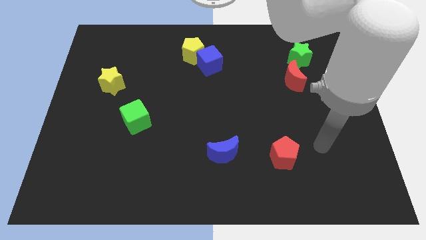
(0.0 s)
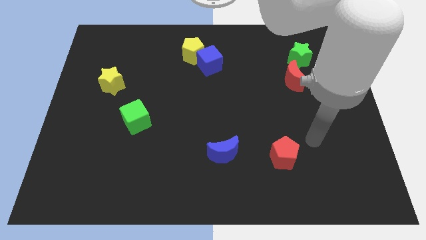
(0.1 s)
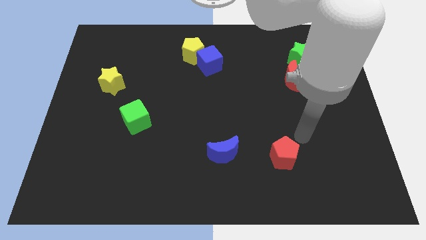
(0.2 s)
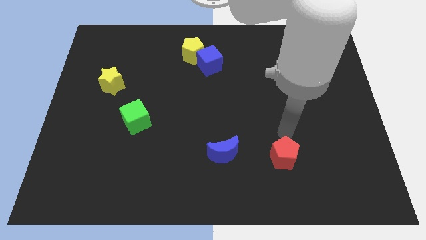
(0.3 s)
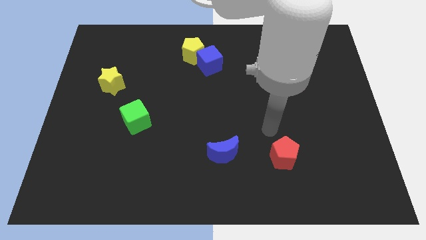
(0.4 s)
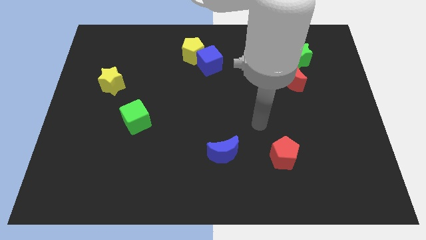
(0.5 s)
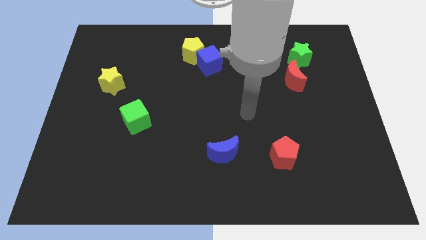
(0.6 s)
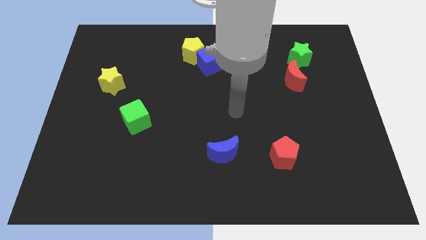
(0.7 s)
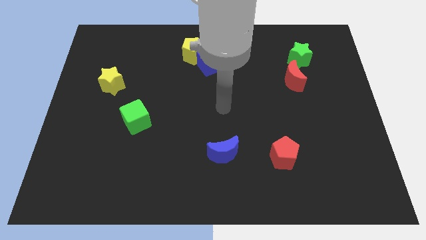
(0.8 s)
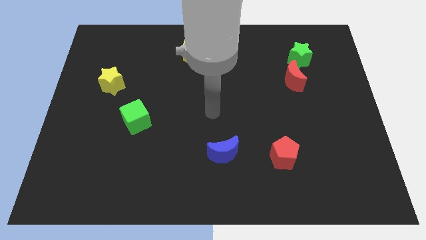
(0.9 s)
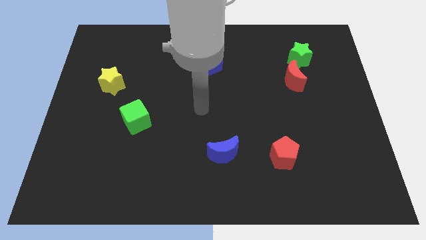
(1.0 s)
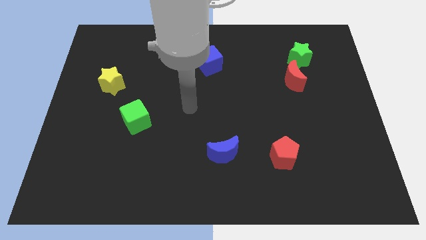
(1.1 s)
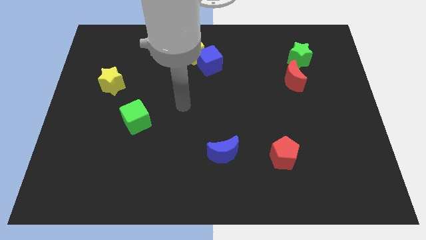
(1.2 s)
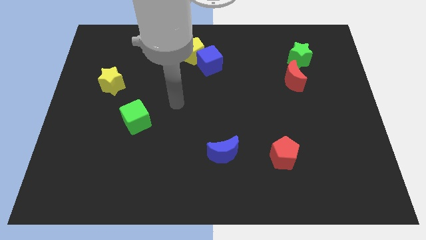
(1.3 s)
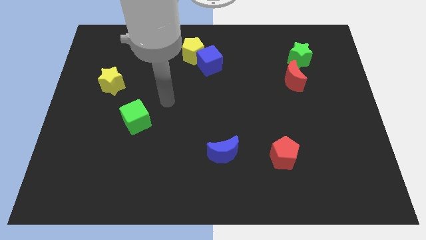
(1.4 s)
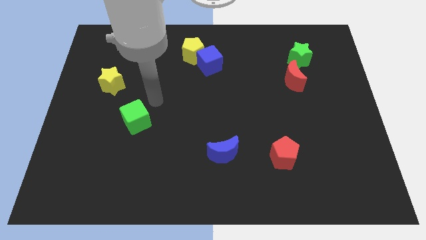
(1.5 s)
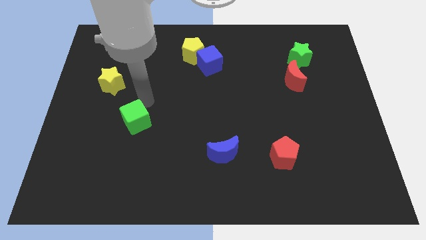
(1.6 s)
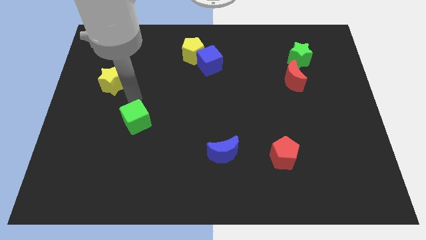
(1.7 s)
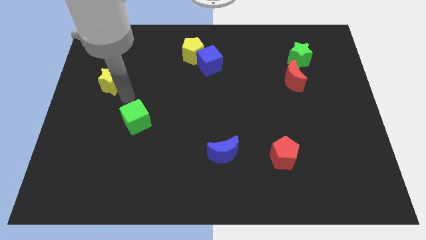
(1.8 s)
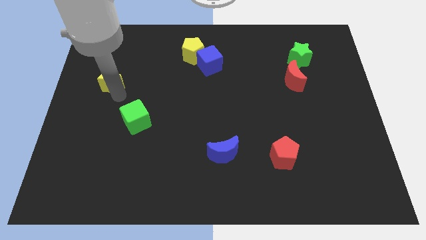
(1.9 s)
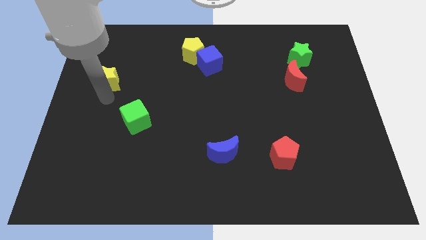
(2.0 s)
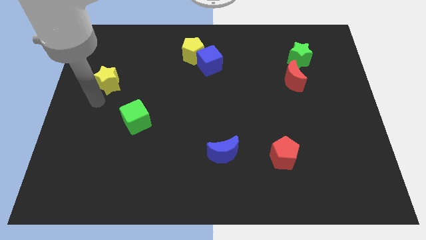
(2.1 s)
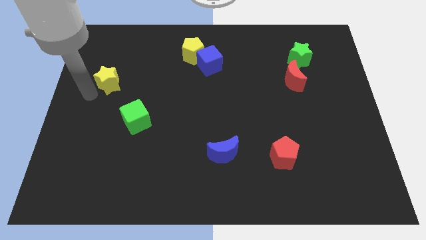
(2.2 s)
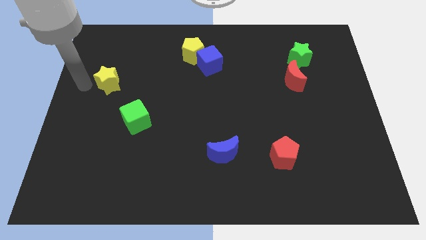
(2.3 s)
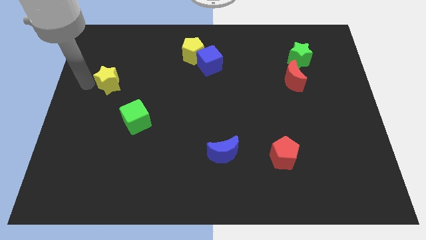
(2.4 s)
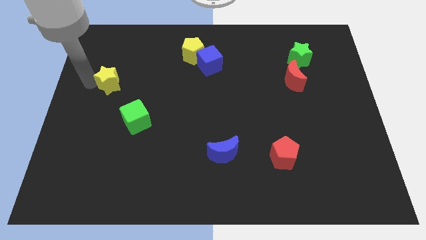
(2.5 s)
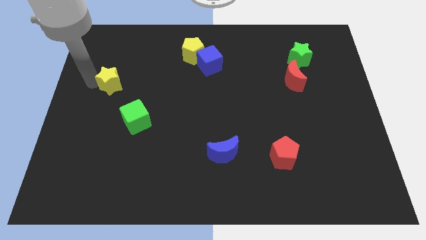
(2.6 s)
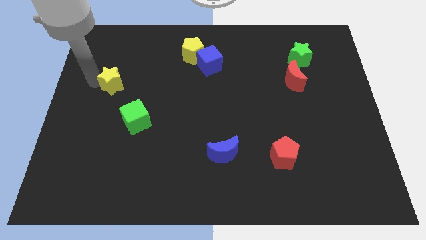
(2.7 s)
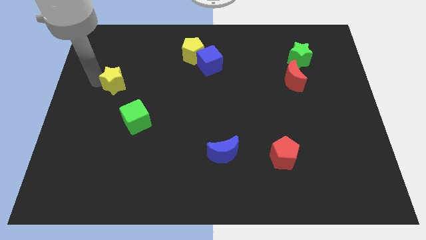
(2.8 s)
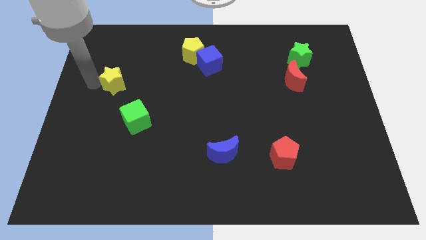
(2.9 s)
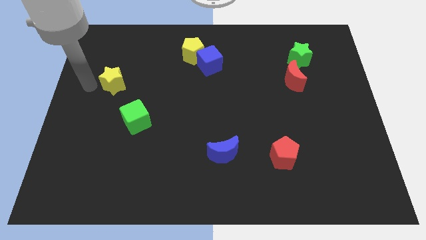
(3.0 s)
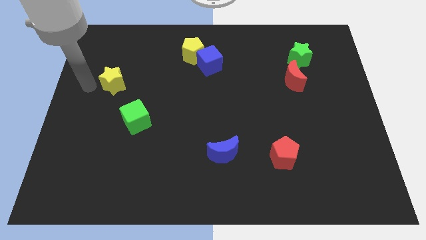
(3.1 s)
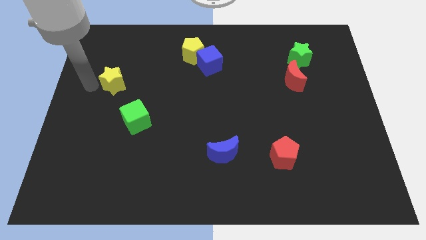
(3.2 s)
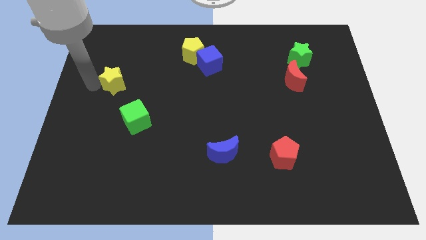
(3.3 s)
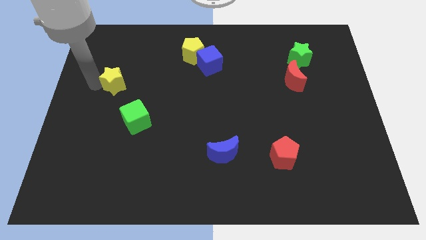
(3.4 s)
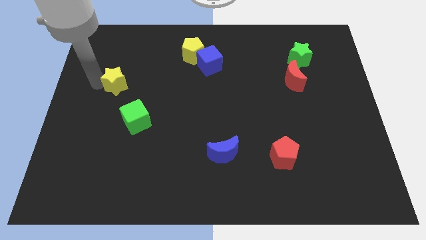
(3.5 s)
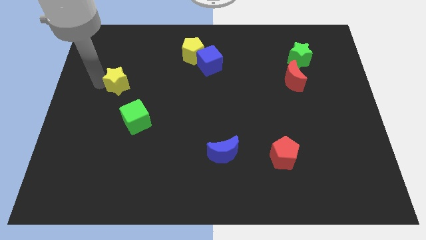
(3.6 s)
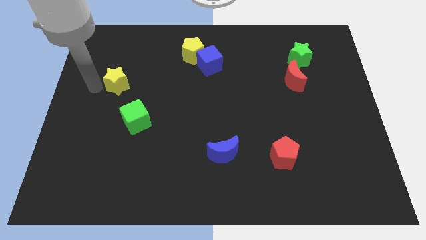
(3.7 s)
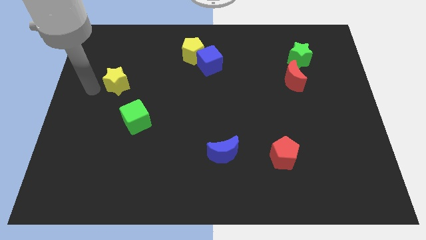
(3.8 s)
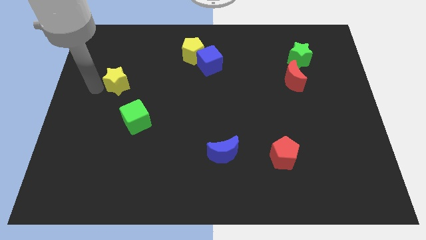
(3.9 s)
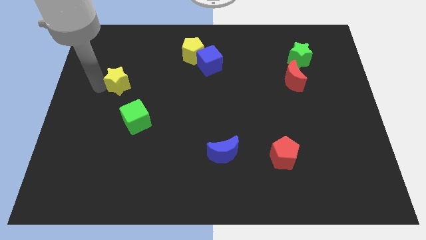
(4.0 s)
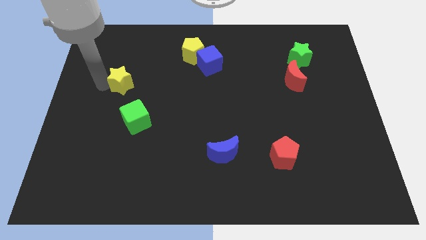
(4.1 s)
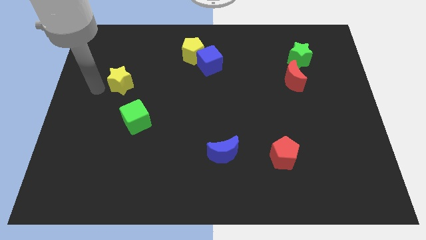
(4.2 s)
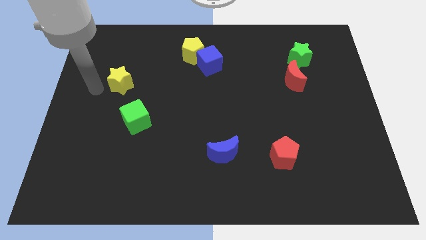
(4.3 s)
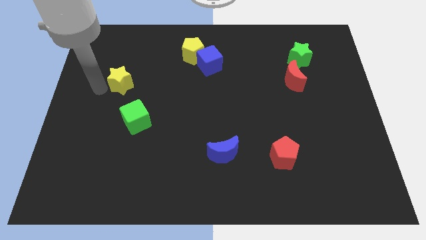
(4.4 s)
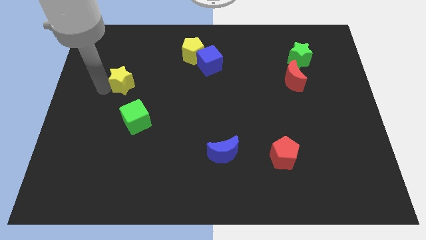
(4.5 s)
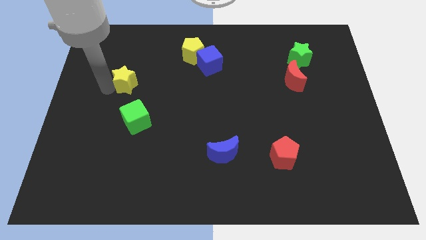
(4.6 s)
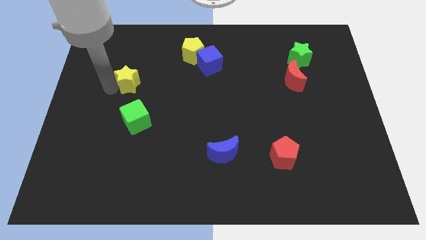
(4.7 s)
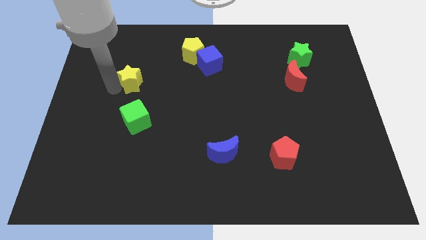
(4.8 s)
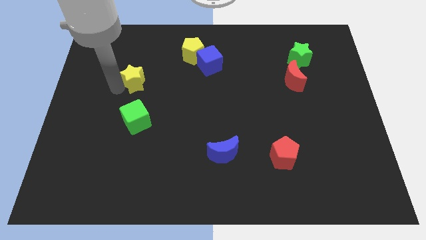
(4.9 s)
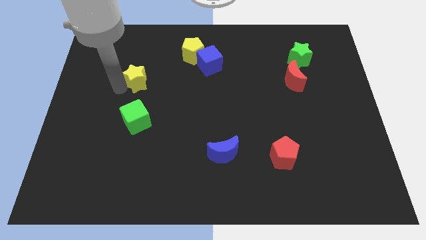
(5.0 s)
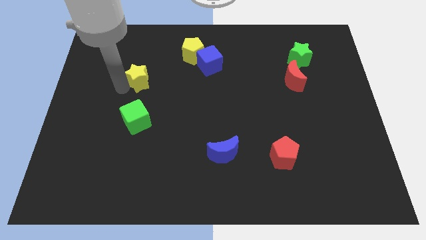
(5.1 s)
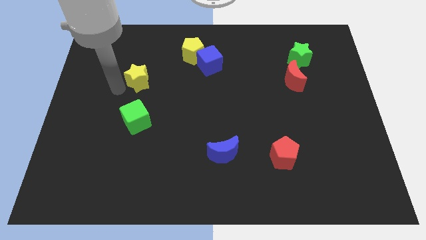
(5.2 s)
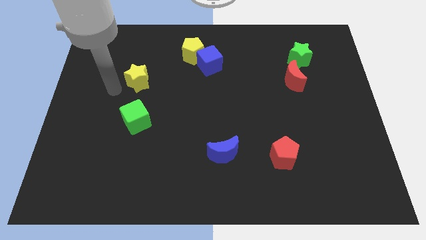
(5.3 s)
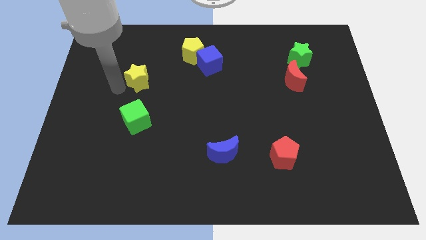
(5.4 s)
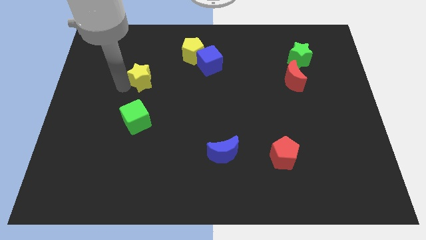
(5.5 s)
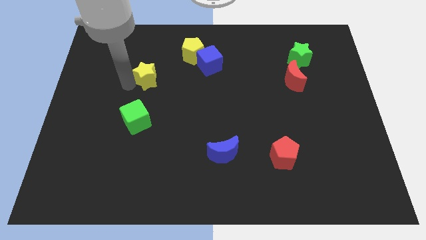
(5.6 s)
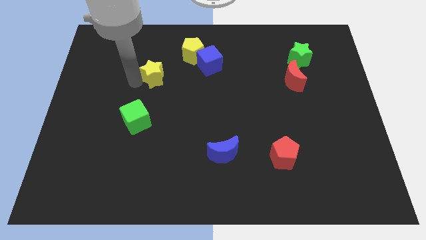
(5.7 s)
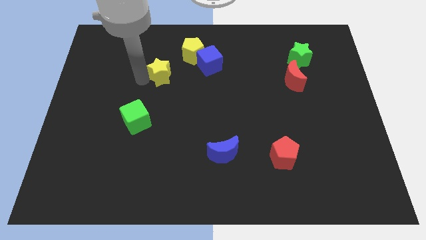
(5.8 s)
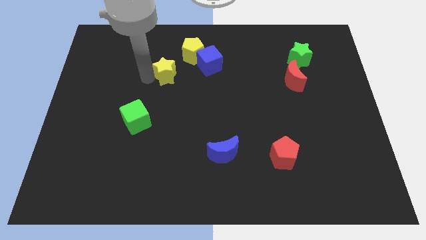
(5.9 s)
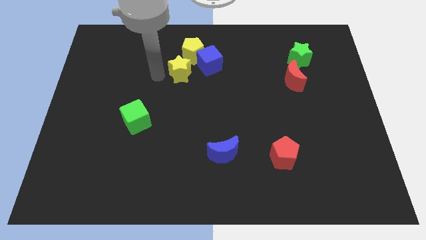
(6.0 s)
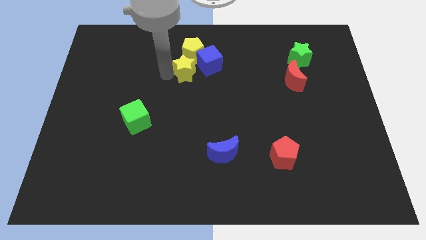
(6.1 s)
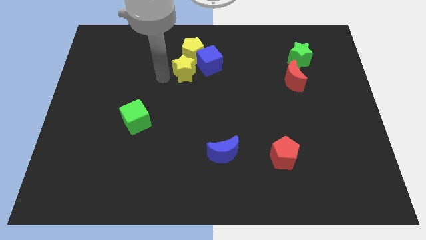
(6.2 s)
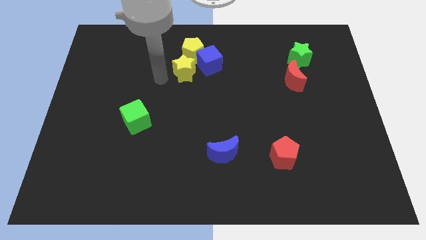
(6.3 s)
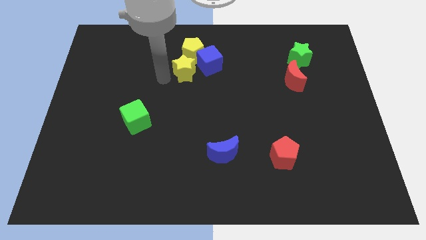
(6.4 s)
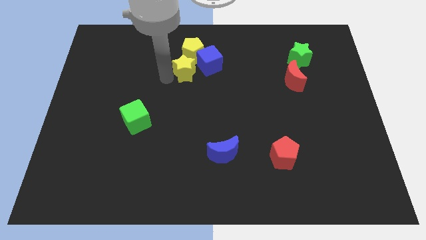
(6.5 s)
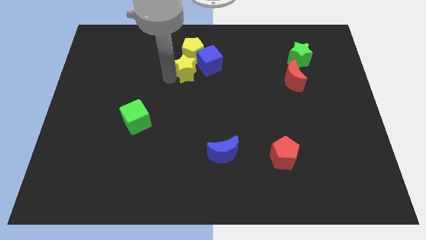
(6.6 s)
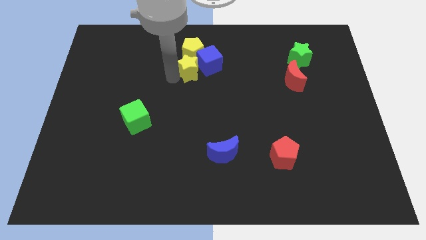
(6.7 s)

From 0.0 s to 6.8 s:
slide the yellow star close to the blue cube

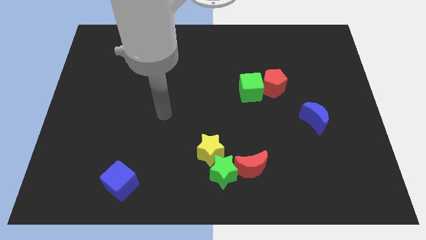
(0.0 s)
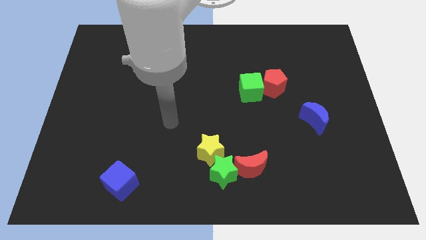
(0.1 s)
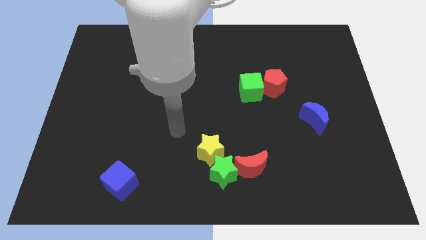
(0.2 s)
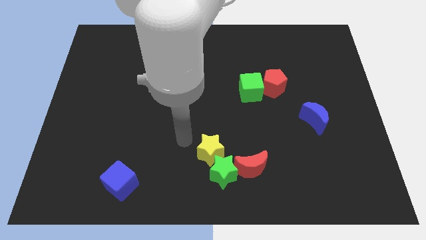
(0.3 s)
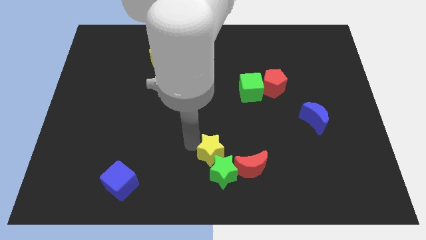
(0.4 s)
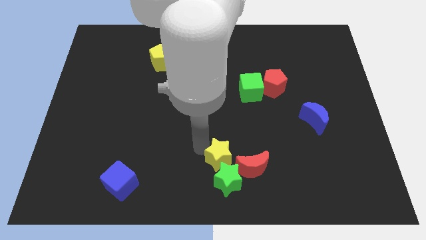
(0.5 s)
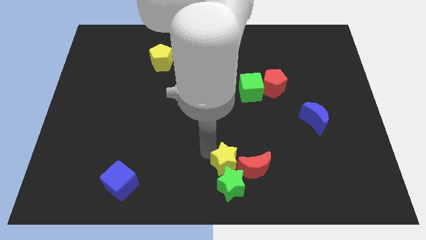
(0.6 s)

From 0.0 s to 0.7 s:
put the yellow star next to the red moon
